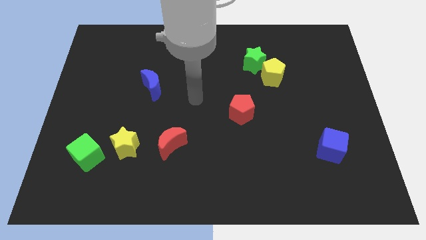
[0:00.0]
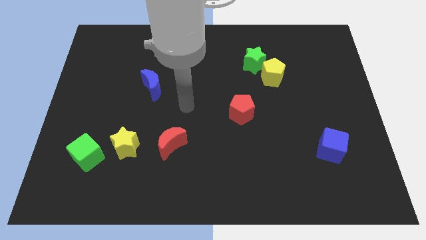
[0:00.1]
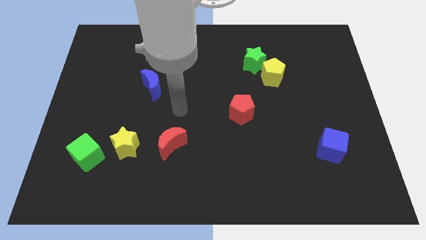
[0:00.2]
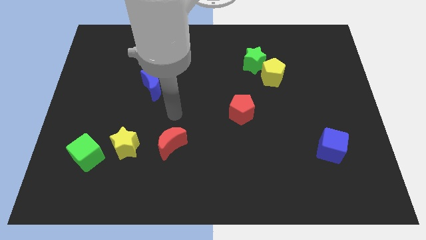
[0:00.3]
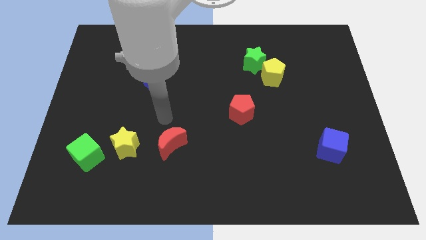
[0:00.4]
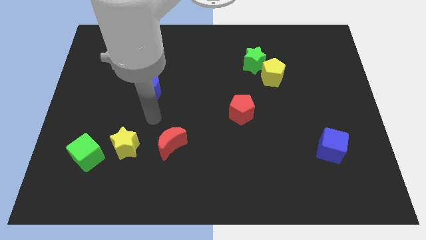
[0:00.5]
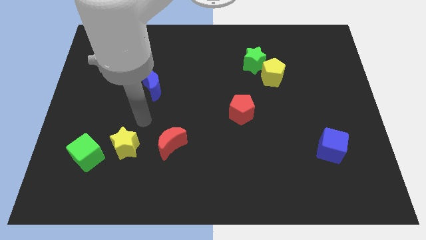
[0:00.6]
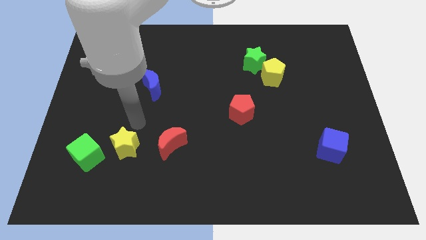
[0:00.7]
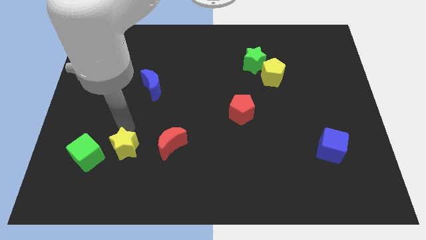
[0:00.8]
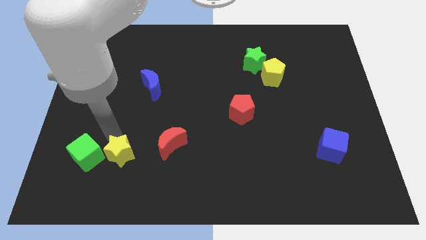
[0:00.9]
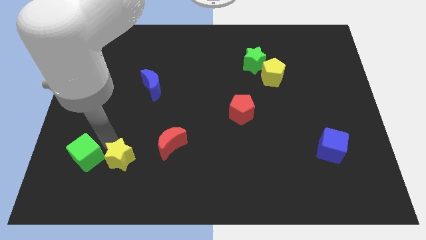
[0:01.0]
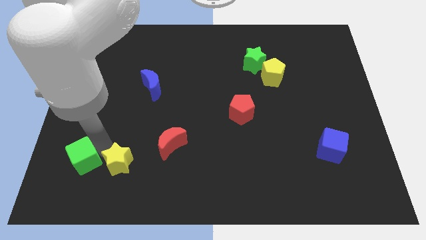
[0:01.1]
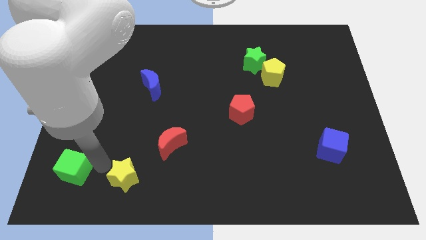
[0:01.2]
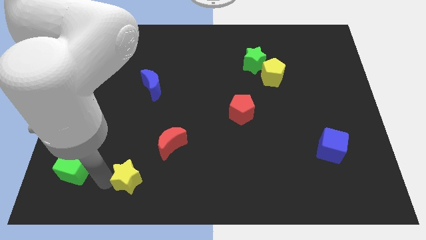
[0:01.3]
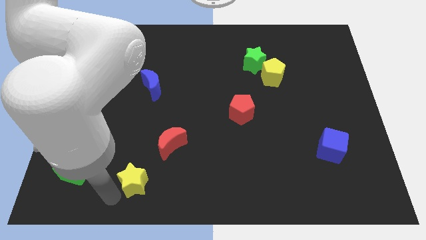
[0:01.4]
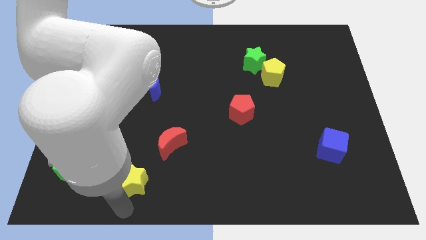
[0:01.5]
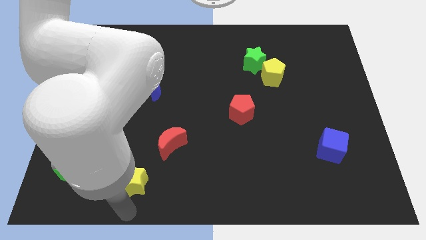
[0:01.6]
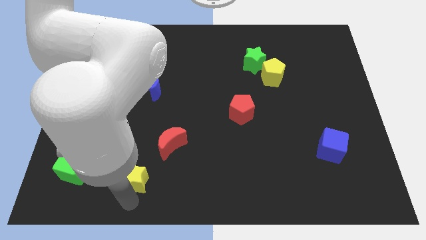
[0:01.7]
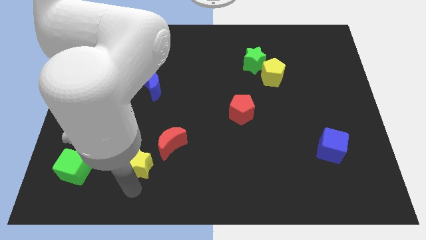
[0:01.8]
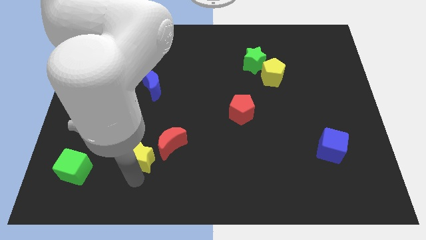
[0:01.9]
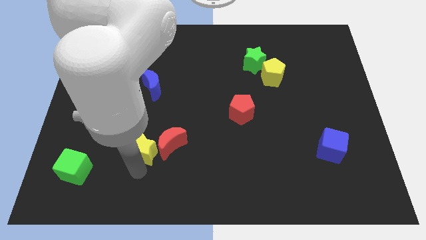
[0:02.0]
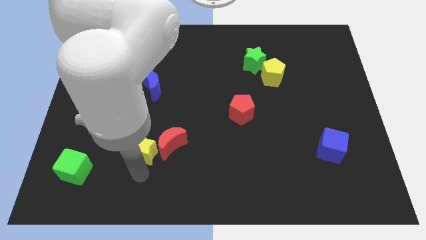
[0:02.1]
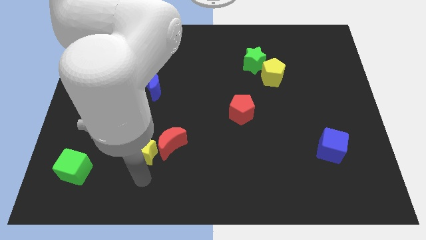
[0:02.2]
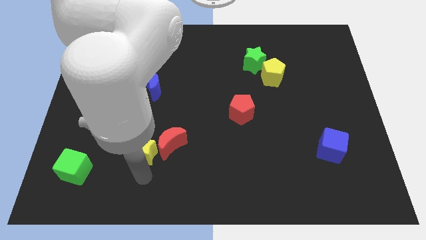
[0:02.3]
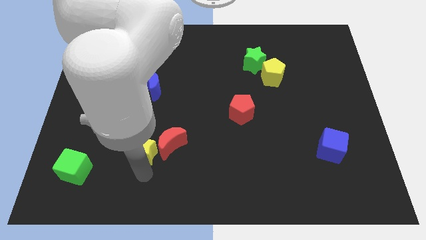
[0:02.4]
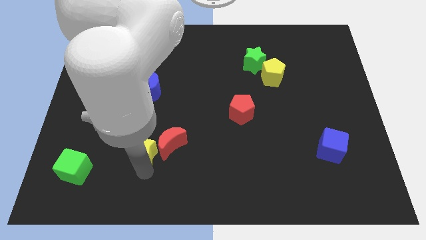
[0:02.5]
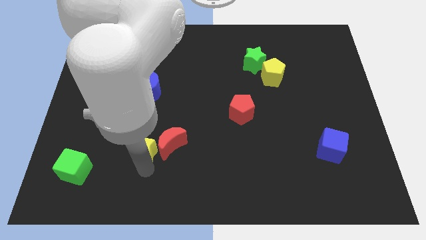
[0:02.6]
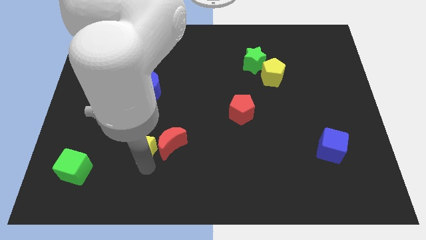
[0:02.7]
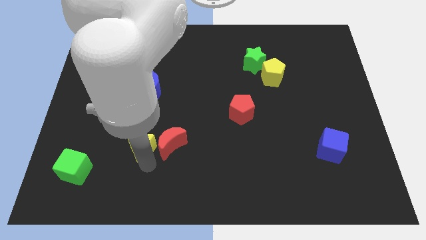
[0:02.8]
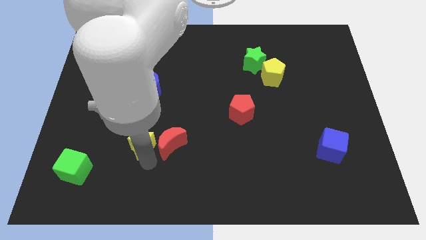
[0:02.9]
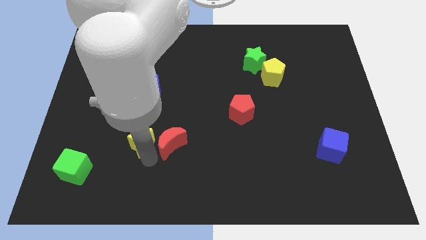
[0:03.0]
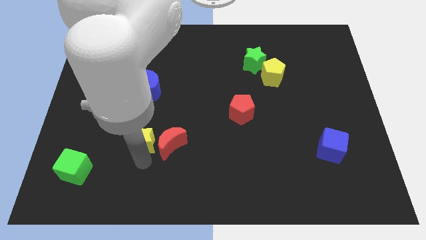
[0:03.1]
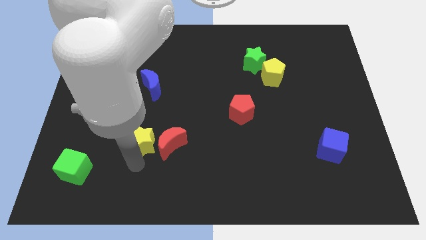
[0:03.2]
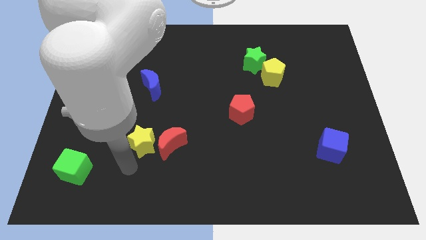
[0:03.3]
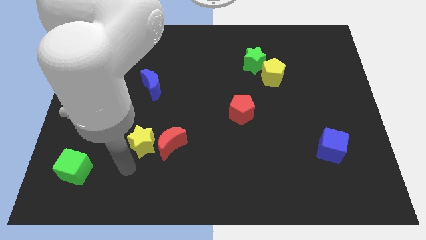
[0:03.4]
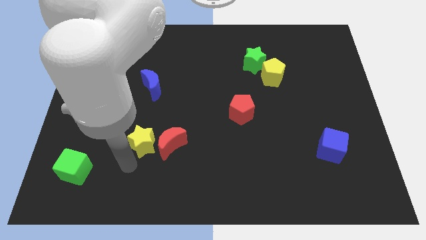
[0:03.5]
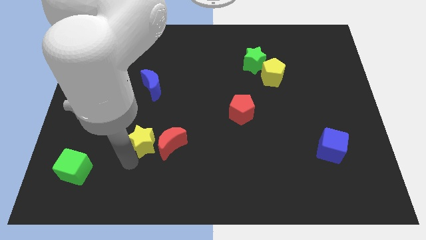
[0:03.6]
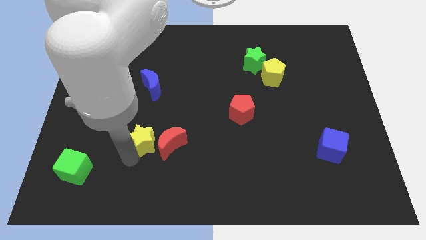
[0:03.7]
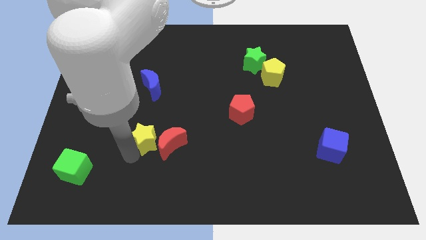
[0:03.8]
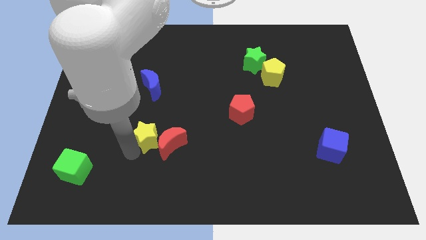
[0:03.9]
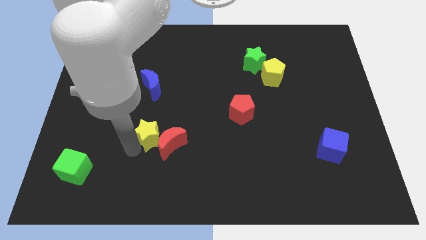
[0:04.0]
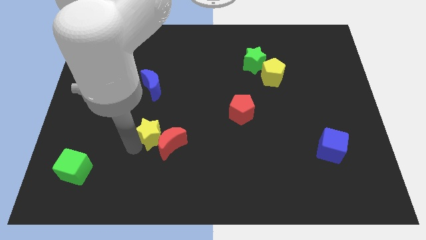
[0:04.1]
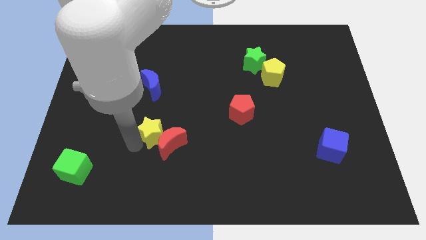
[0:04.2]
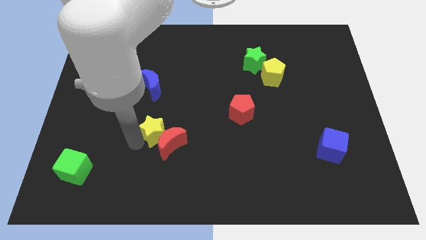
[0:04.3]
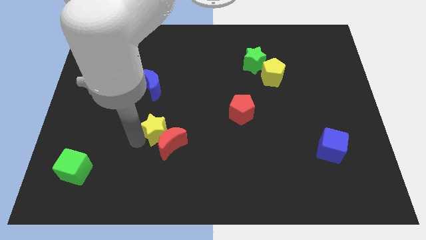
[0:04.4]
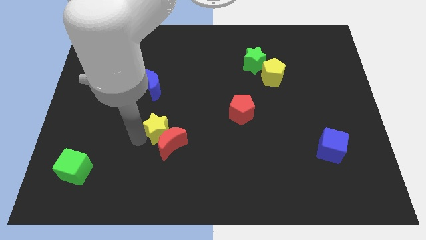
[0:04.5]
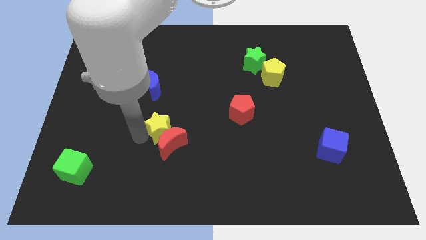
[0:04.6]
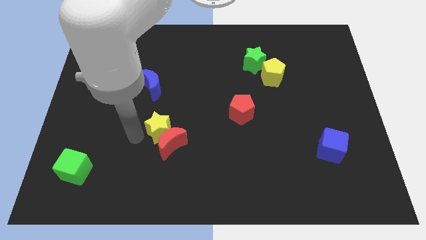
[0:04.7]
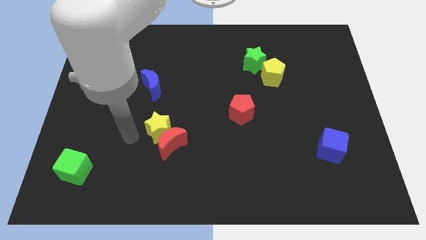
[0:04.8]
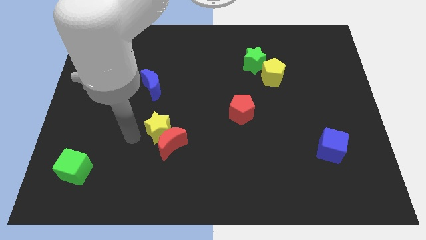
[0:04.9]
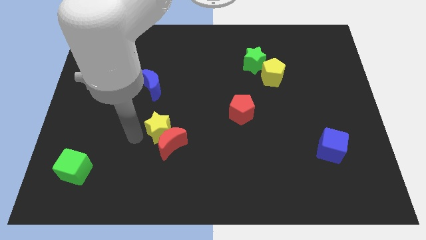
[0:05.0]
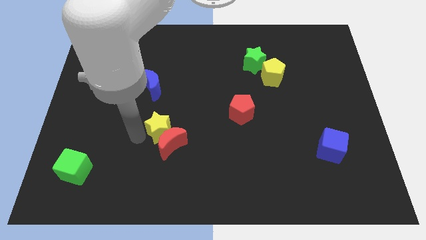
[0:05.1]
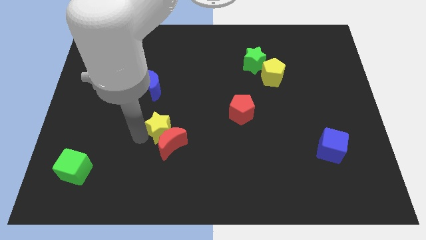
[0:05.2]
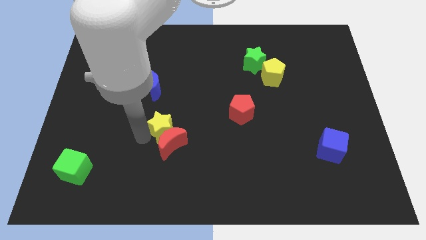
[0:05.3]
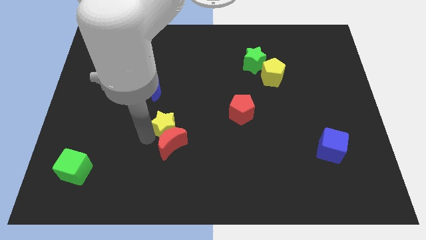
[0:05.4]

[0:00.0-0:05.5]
push the yellow star to the top right of the red moon

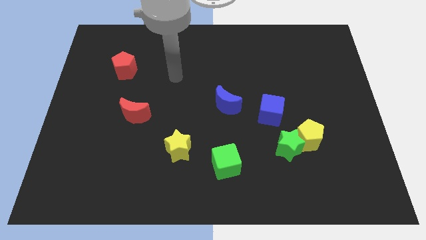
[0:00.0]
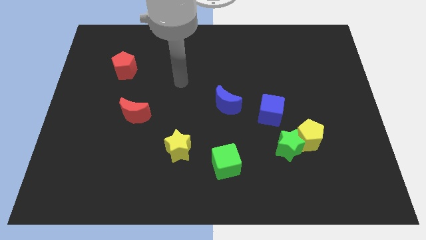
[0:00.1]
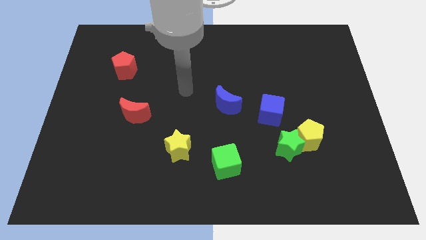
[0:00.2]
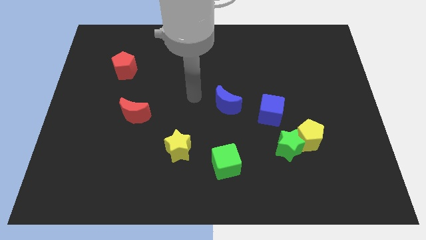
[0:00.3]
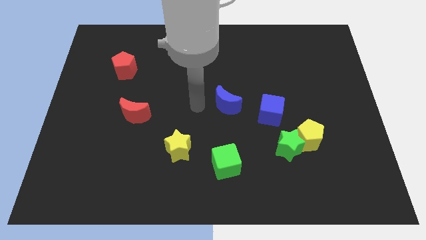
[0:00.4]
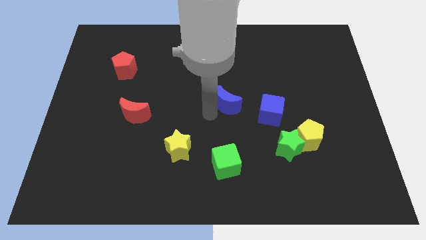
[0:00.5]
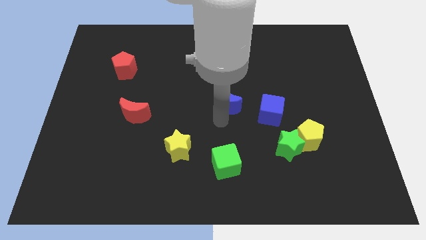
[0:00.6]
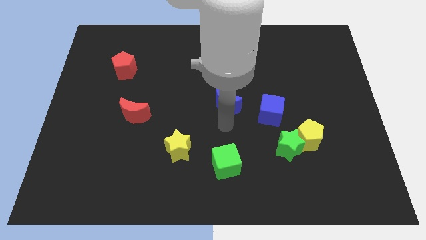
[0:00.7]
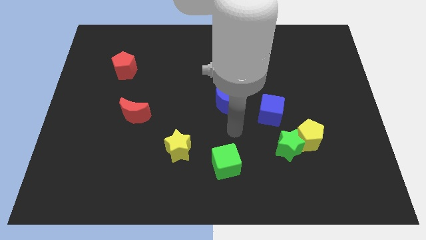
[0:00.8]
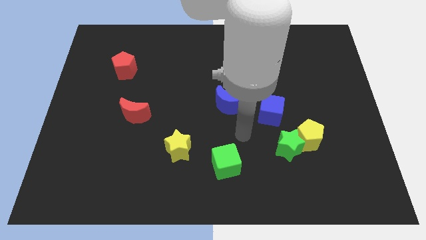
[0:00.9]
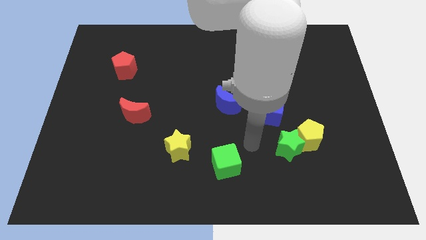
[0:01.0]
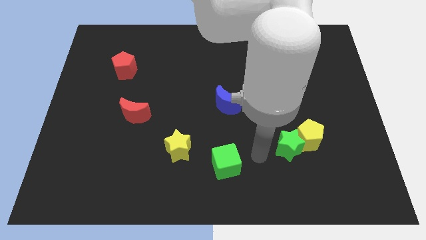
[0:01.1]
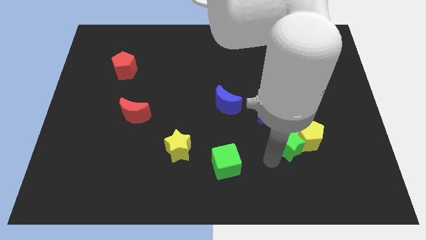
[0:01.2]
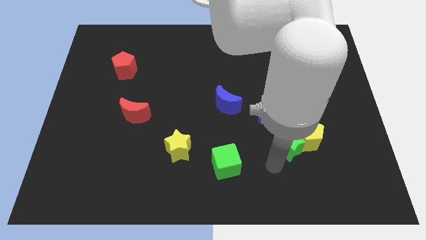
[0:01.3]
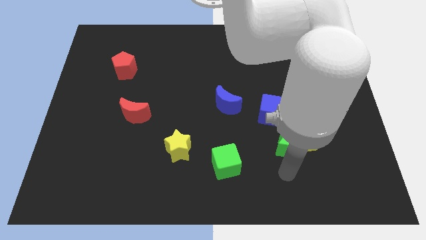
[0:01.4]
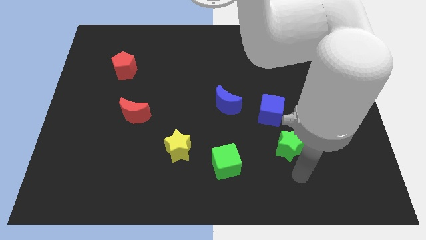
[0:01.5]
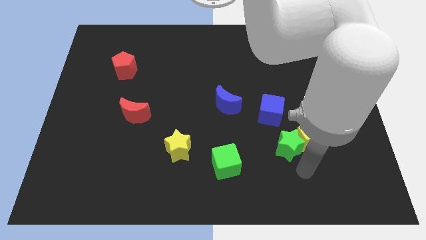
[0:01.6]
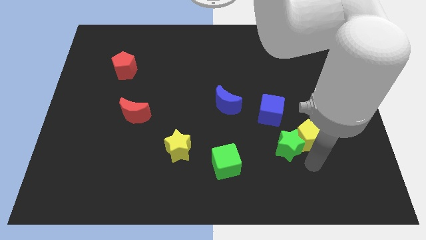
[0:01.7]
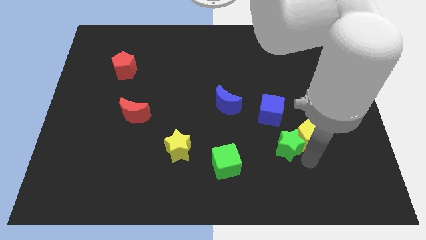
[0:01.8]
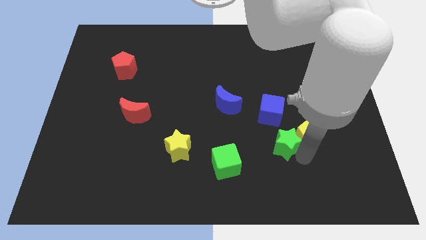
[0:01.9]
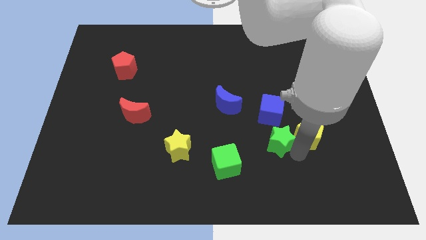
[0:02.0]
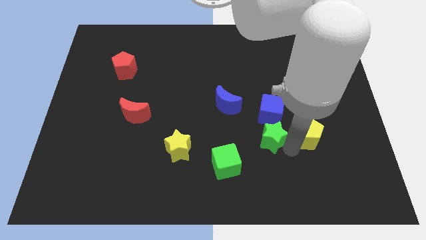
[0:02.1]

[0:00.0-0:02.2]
slide the green star to the bottom left of the blue cube
